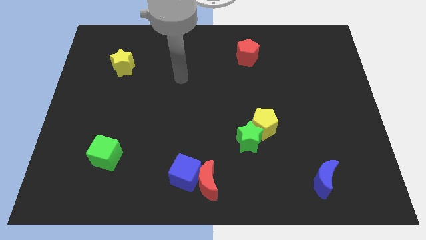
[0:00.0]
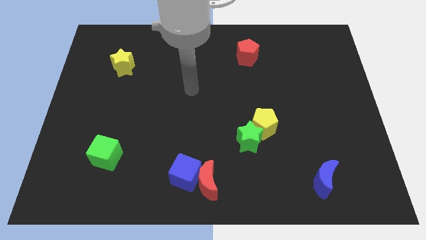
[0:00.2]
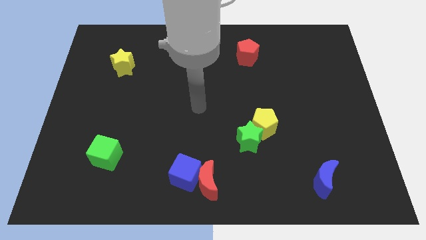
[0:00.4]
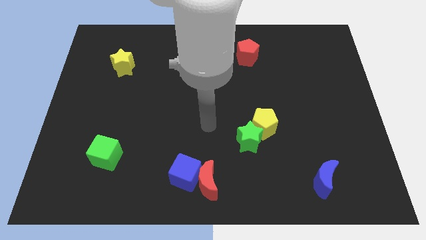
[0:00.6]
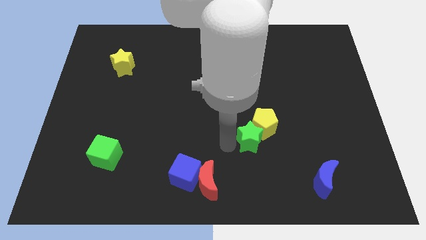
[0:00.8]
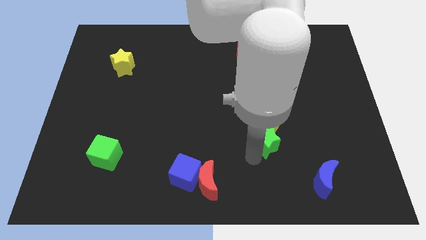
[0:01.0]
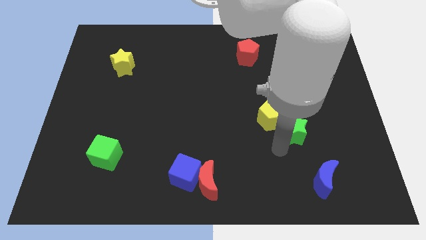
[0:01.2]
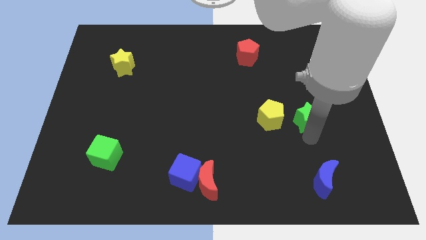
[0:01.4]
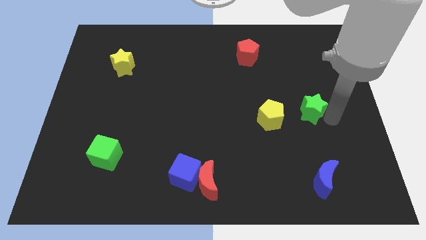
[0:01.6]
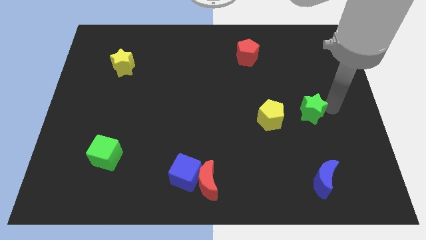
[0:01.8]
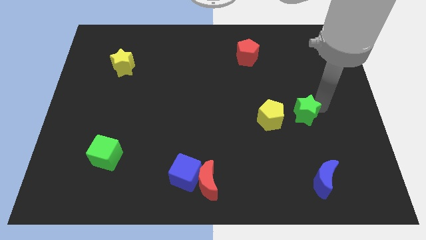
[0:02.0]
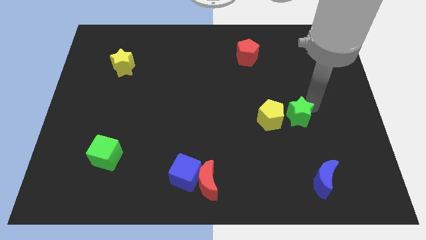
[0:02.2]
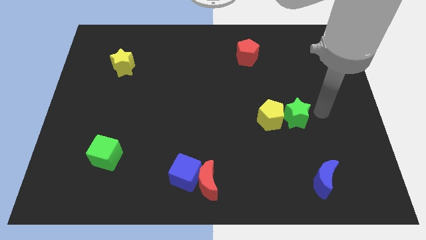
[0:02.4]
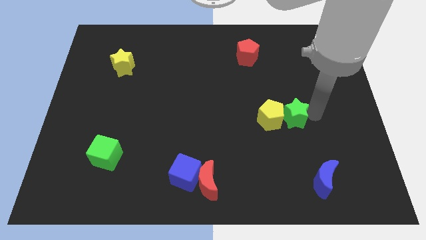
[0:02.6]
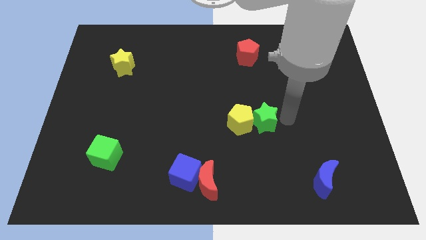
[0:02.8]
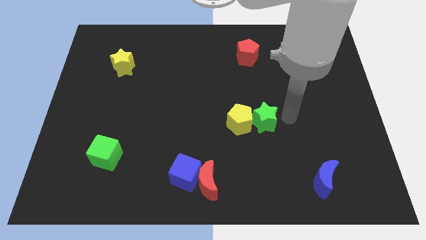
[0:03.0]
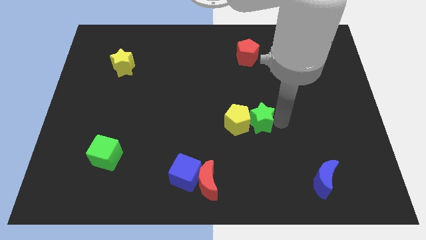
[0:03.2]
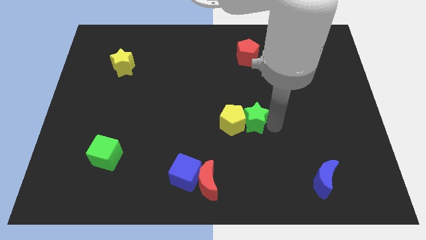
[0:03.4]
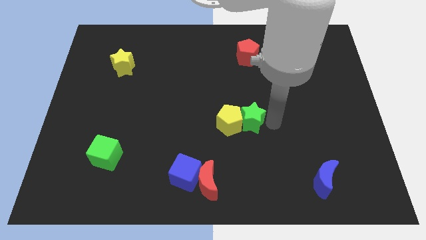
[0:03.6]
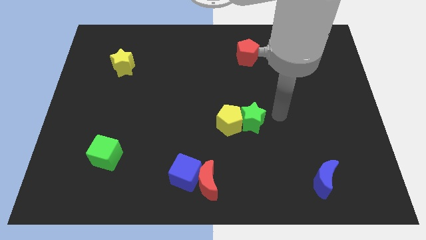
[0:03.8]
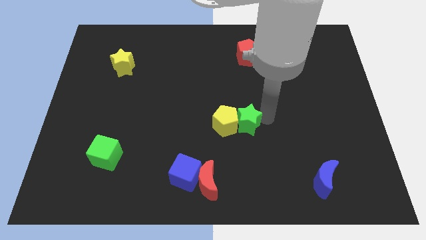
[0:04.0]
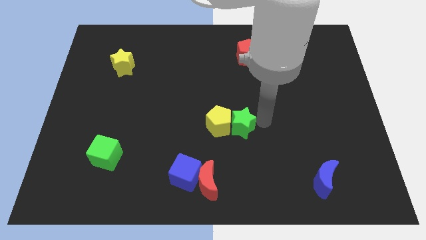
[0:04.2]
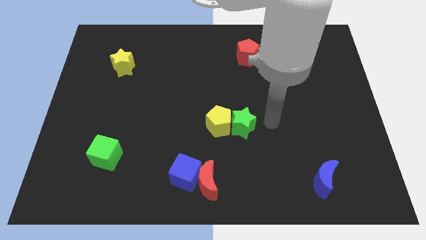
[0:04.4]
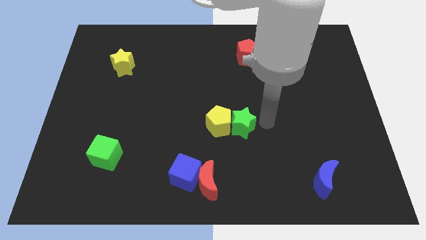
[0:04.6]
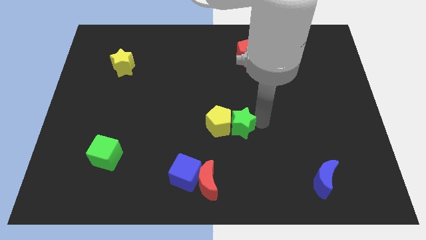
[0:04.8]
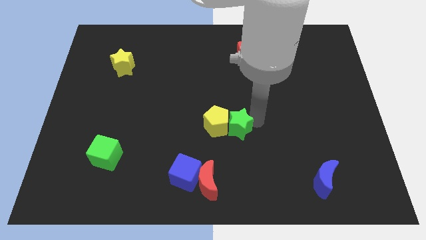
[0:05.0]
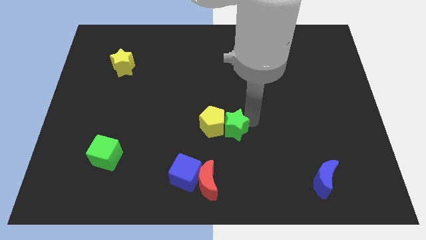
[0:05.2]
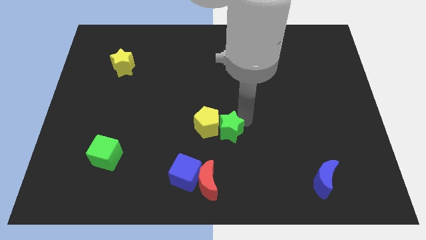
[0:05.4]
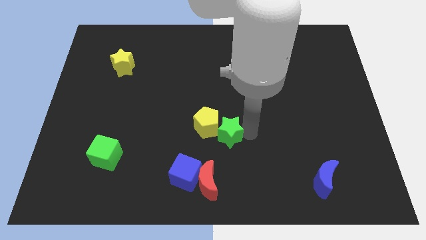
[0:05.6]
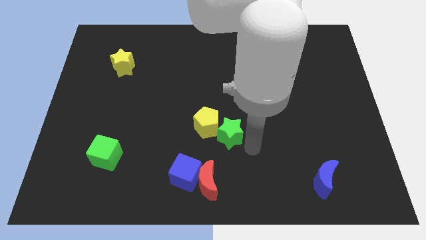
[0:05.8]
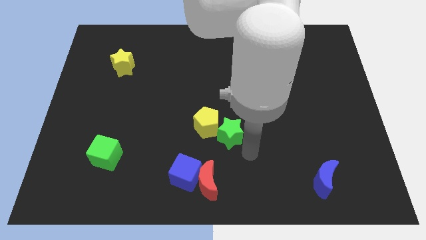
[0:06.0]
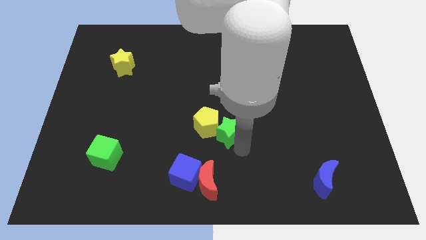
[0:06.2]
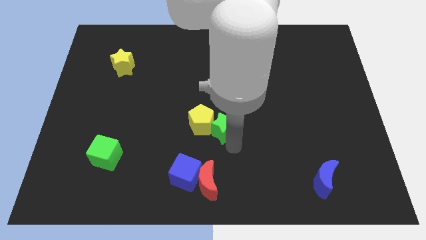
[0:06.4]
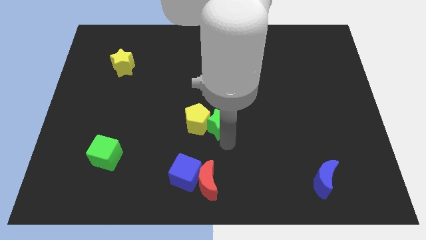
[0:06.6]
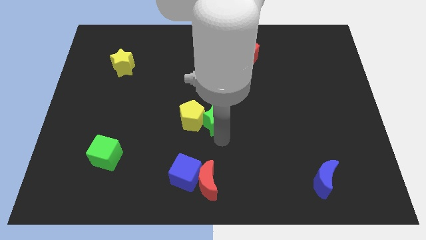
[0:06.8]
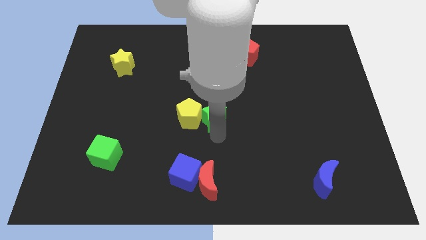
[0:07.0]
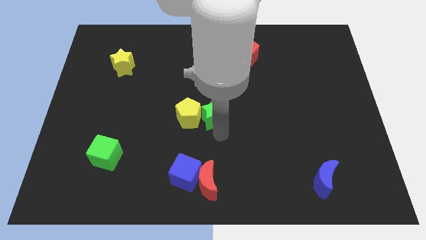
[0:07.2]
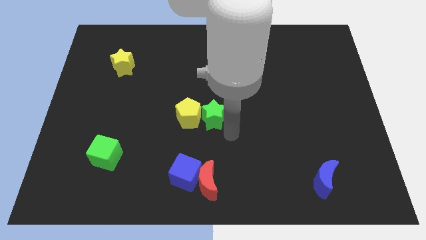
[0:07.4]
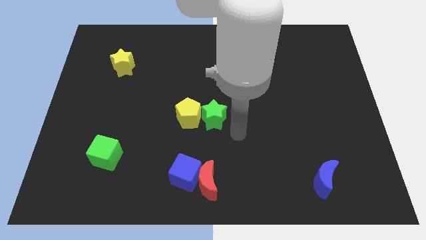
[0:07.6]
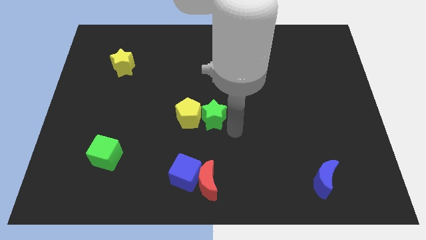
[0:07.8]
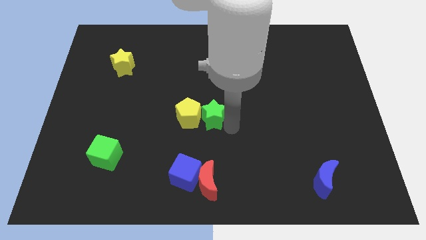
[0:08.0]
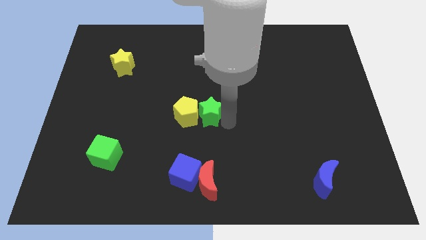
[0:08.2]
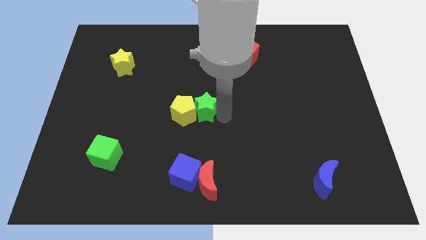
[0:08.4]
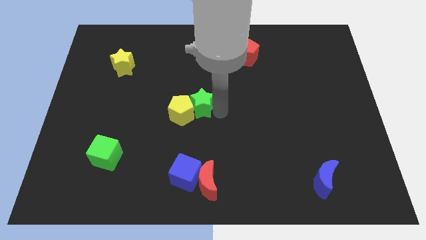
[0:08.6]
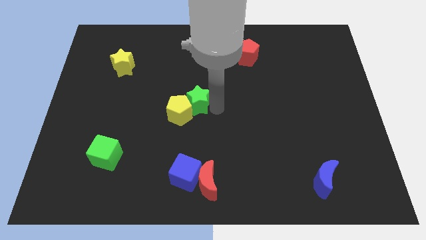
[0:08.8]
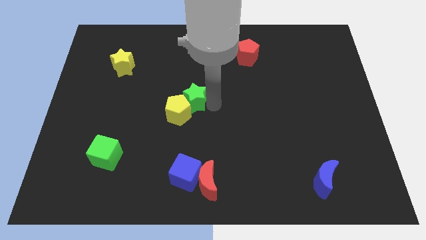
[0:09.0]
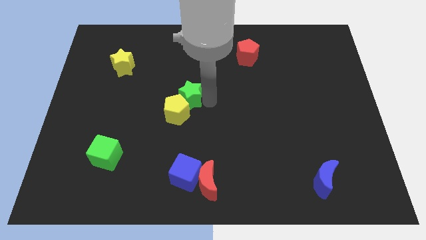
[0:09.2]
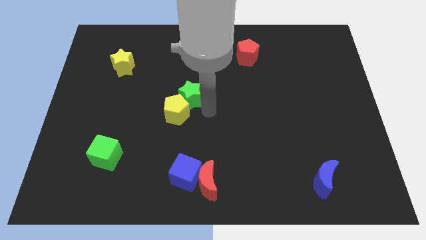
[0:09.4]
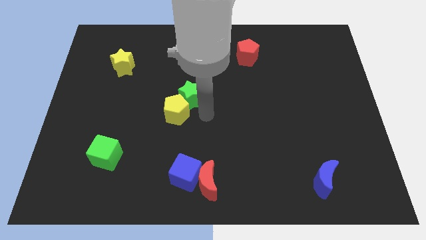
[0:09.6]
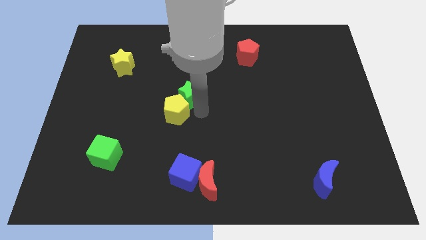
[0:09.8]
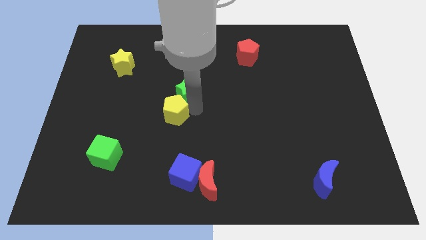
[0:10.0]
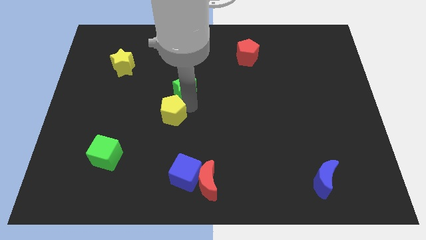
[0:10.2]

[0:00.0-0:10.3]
slide the green star up and then to the left

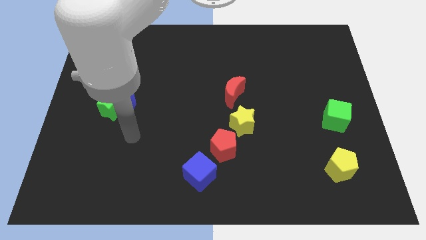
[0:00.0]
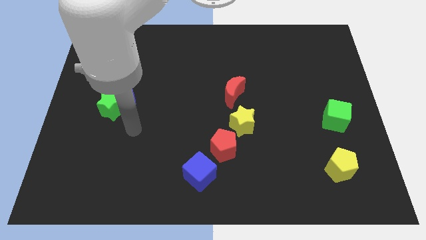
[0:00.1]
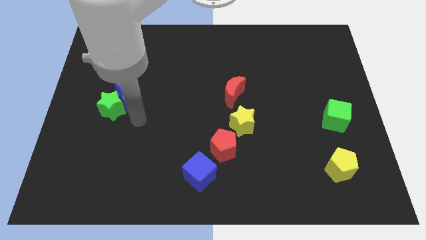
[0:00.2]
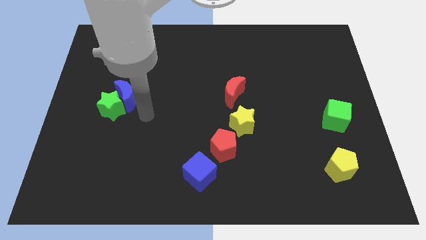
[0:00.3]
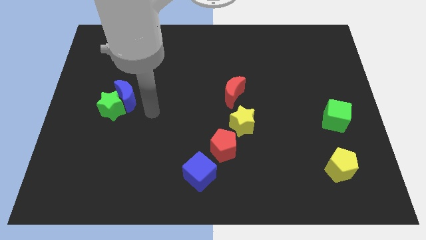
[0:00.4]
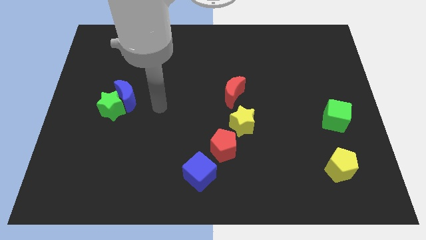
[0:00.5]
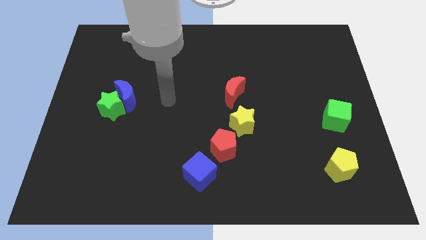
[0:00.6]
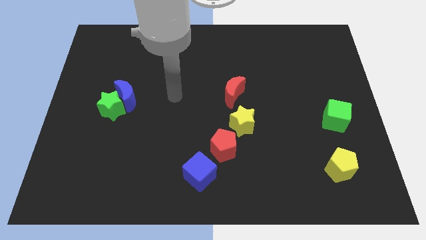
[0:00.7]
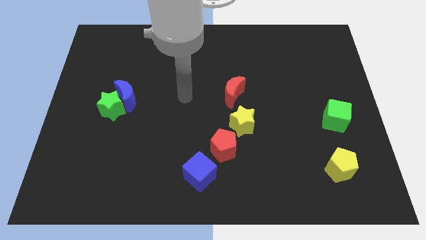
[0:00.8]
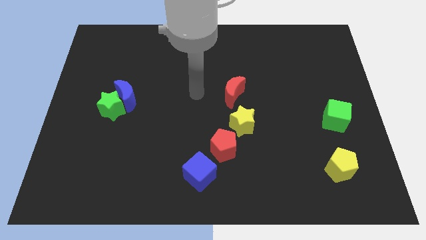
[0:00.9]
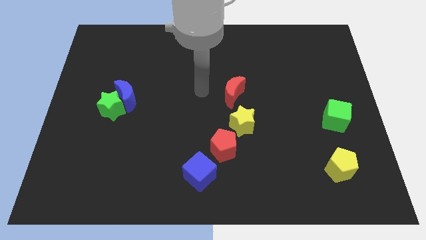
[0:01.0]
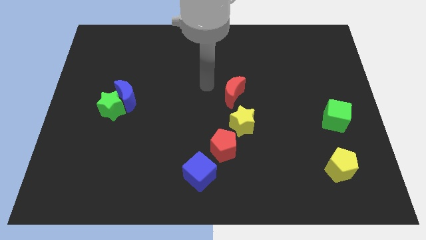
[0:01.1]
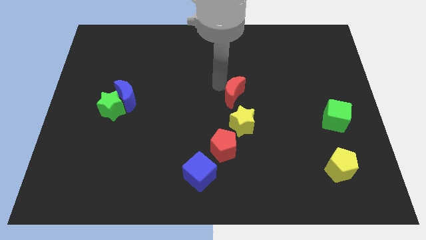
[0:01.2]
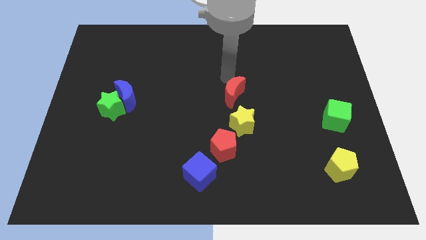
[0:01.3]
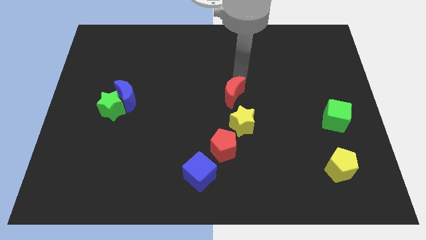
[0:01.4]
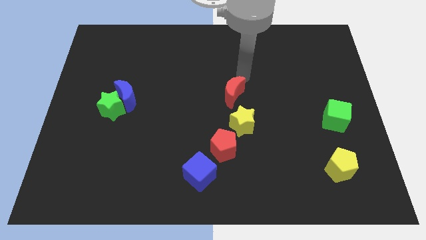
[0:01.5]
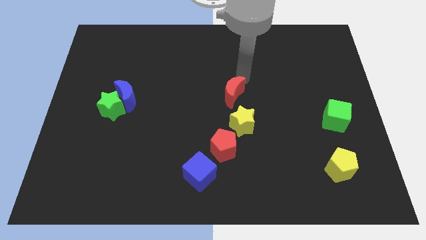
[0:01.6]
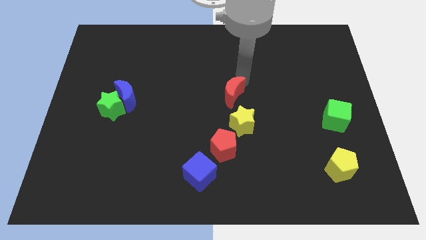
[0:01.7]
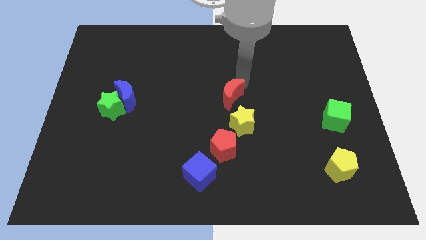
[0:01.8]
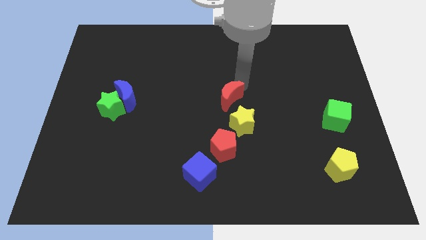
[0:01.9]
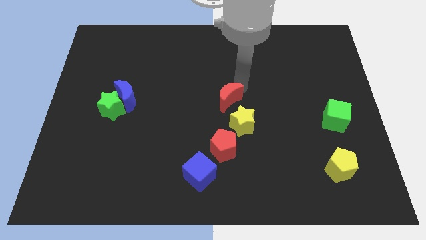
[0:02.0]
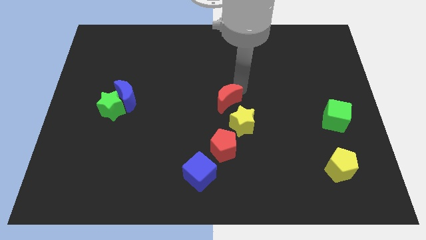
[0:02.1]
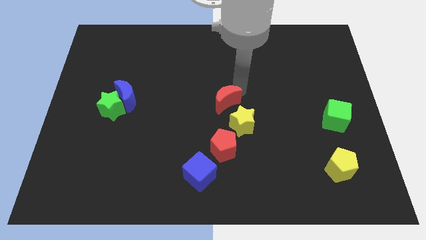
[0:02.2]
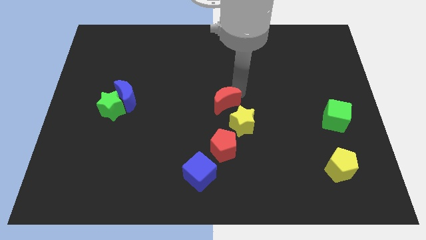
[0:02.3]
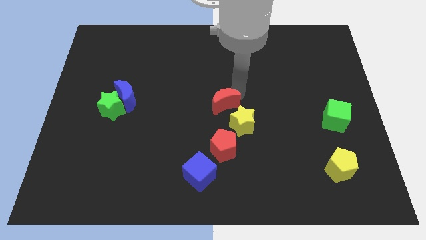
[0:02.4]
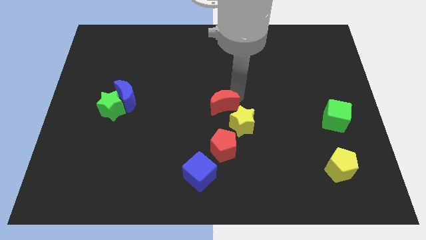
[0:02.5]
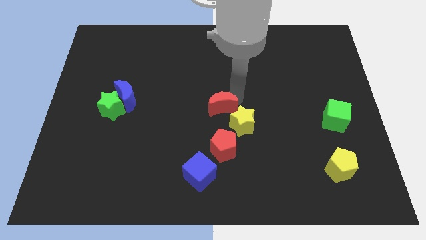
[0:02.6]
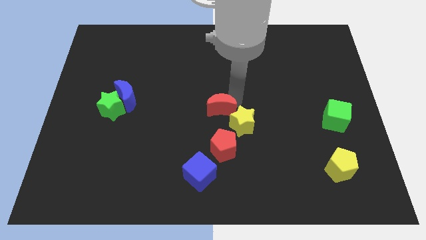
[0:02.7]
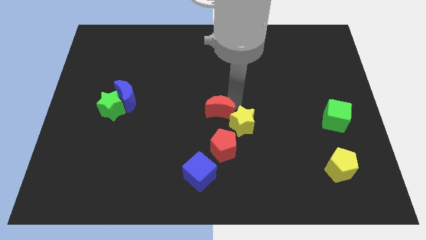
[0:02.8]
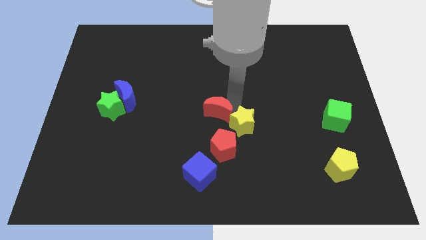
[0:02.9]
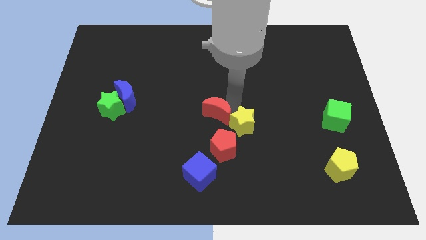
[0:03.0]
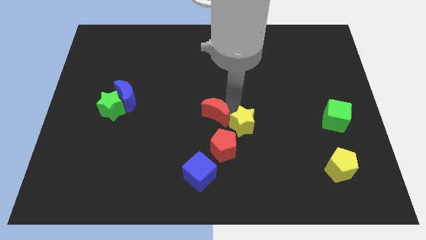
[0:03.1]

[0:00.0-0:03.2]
move the red moon somewhat down and to the left
